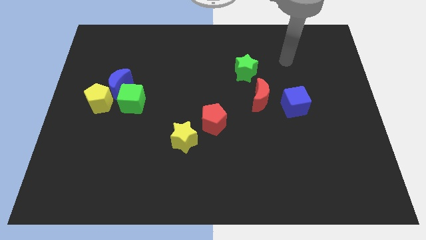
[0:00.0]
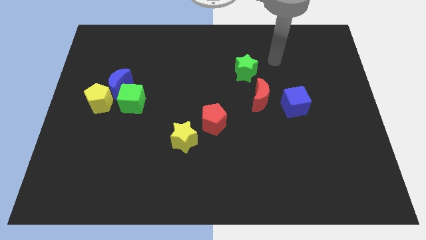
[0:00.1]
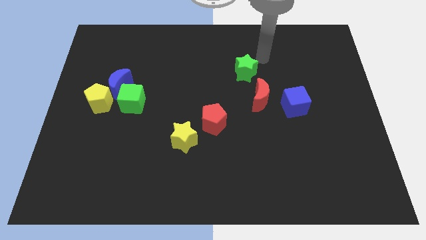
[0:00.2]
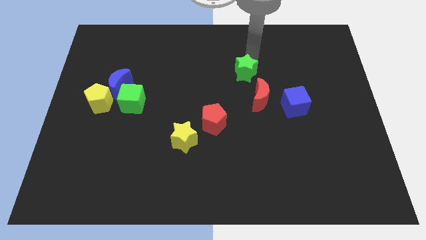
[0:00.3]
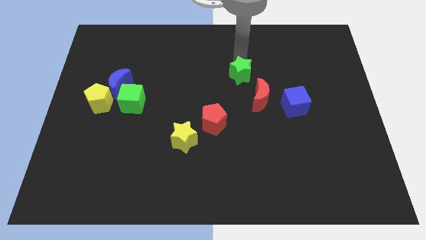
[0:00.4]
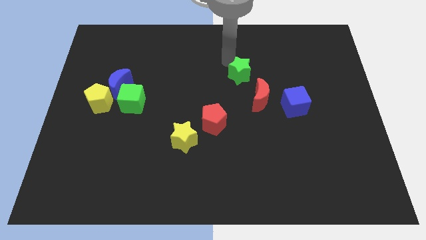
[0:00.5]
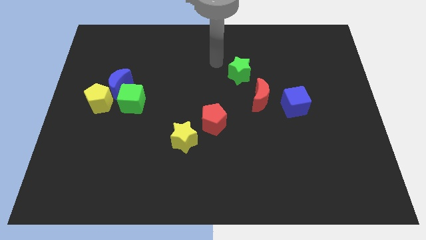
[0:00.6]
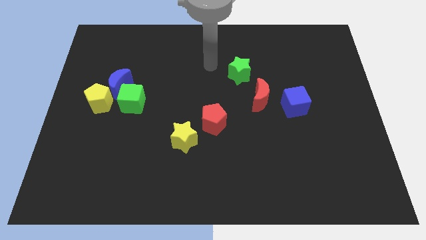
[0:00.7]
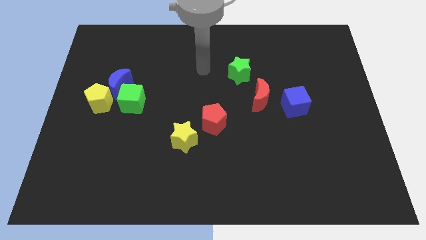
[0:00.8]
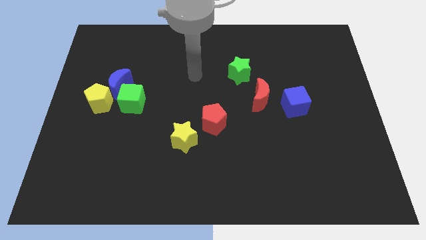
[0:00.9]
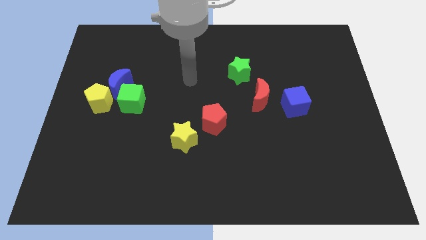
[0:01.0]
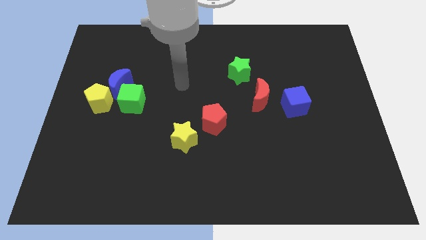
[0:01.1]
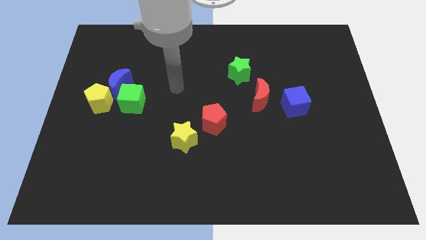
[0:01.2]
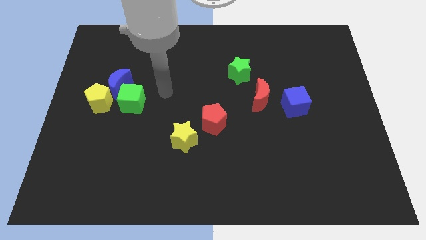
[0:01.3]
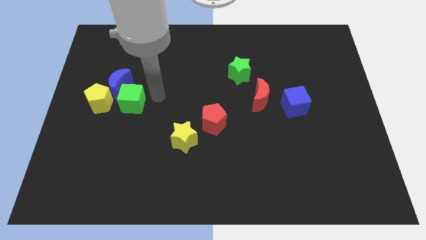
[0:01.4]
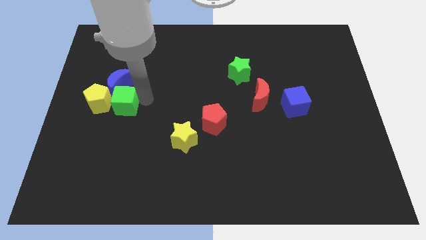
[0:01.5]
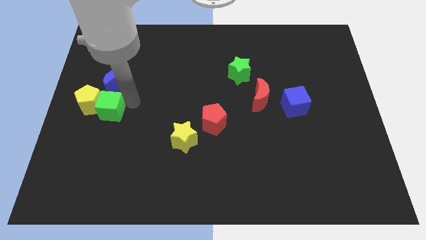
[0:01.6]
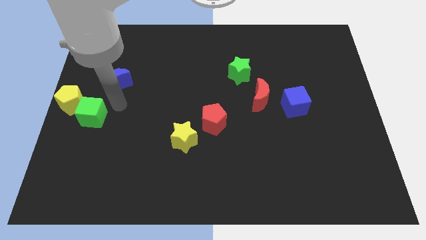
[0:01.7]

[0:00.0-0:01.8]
pull the blue moon apart from the green cube and yellow pentagon

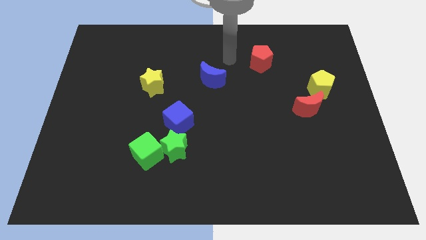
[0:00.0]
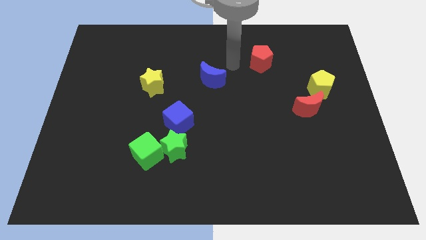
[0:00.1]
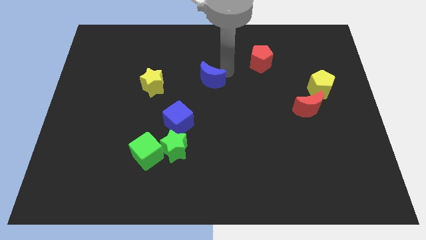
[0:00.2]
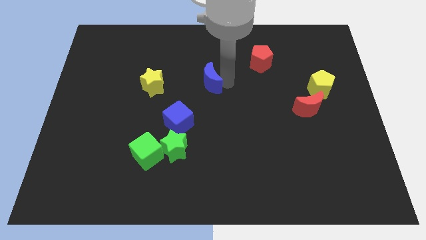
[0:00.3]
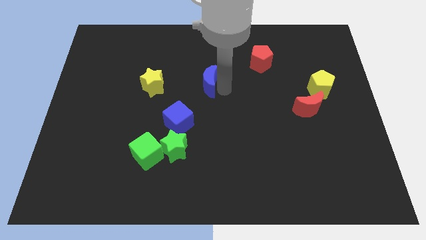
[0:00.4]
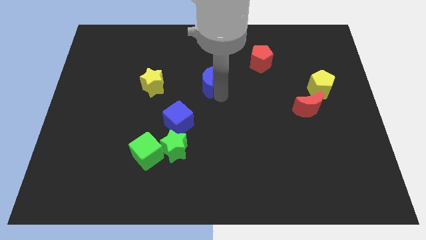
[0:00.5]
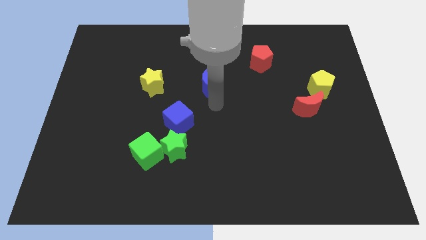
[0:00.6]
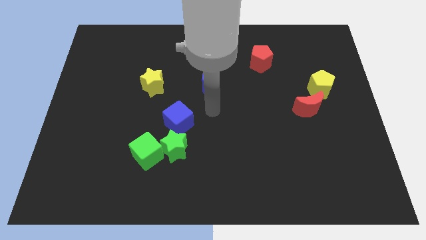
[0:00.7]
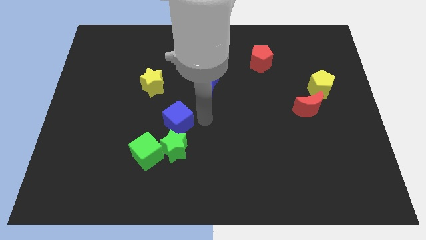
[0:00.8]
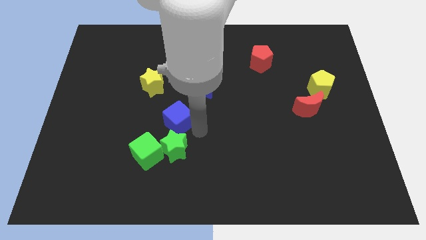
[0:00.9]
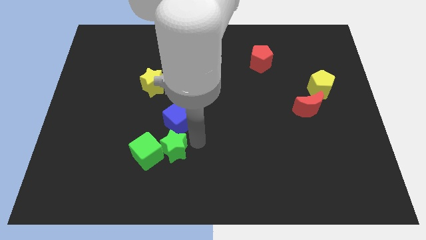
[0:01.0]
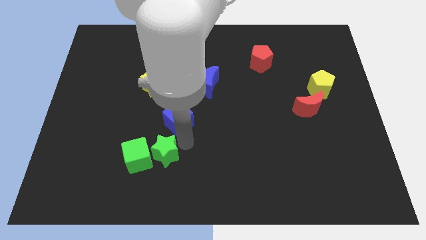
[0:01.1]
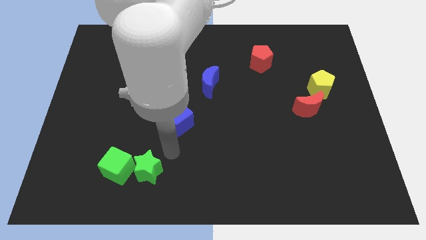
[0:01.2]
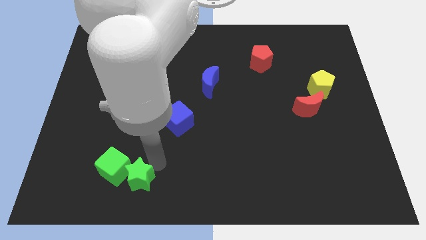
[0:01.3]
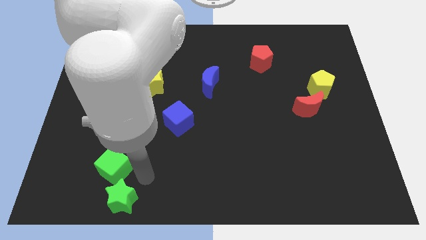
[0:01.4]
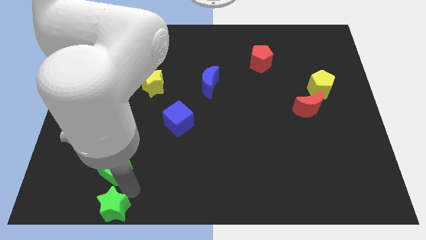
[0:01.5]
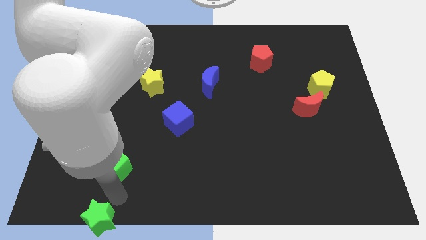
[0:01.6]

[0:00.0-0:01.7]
move the green cube away from the green star

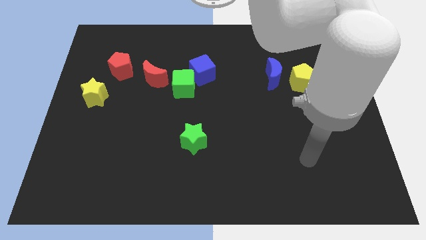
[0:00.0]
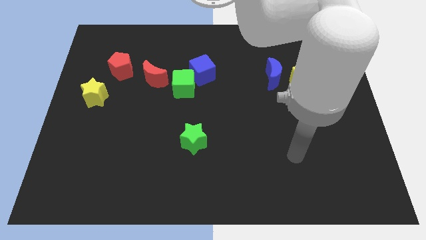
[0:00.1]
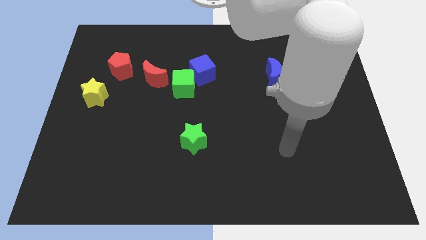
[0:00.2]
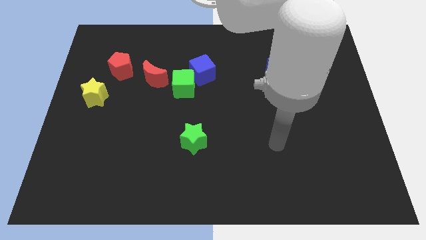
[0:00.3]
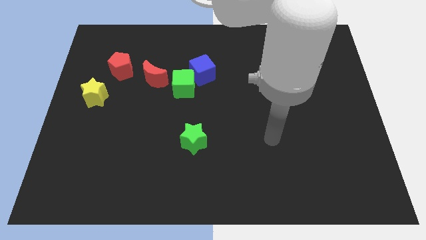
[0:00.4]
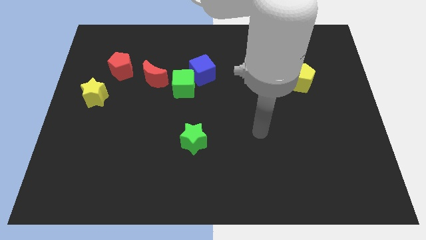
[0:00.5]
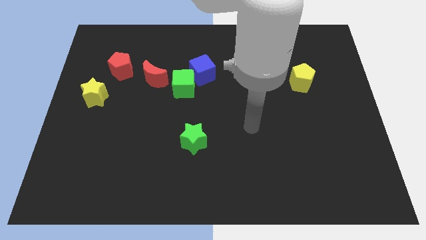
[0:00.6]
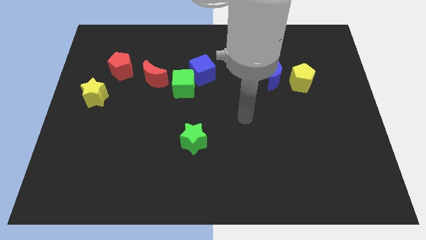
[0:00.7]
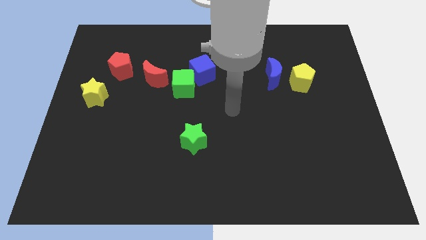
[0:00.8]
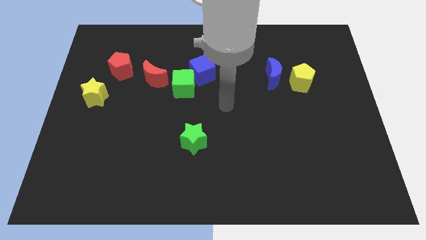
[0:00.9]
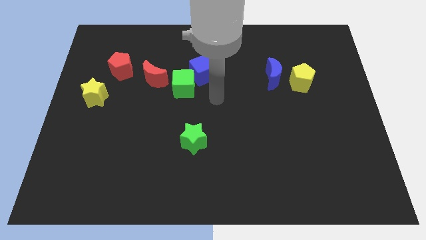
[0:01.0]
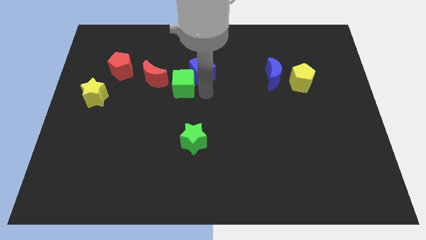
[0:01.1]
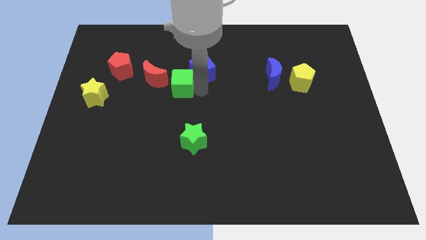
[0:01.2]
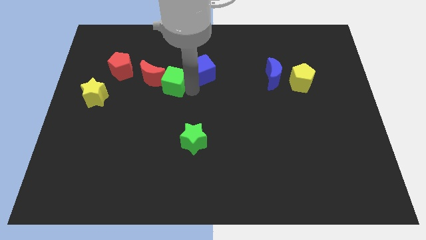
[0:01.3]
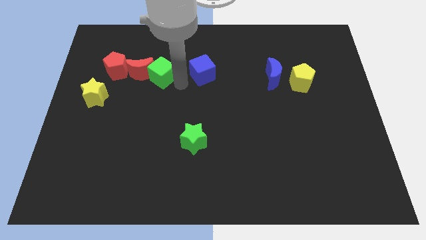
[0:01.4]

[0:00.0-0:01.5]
separate the blue cube from the green cube

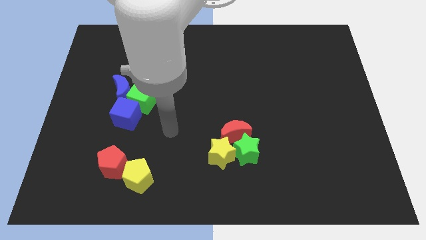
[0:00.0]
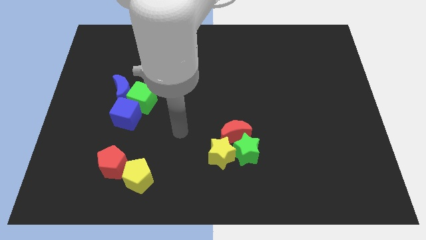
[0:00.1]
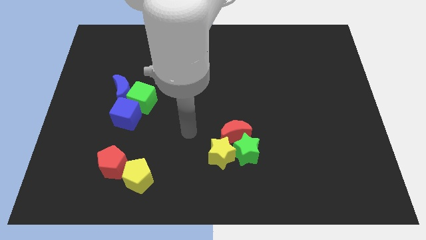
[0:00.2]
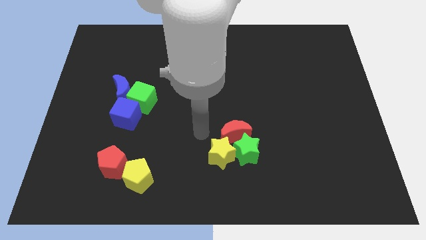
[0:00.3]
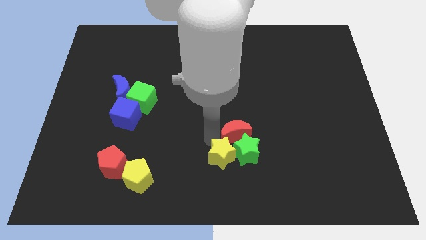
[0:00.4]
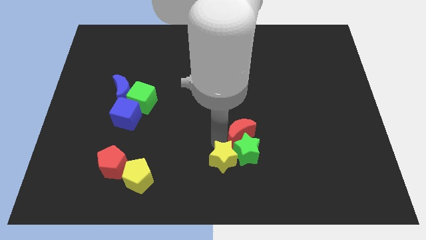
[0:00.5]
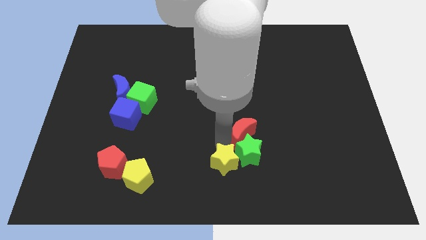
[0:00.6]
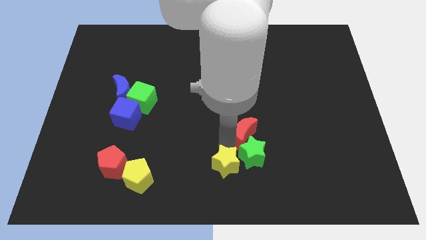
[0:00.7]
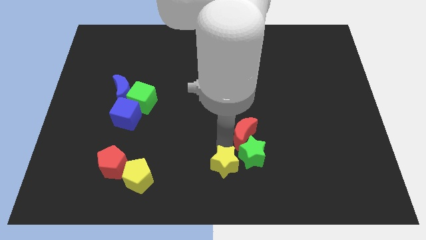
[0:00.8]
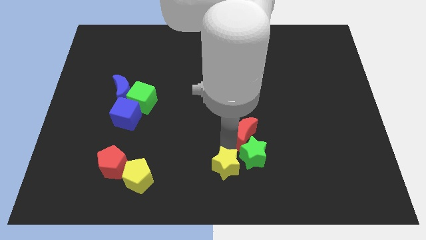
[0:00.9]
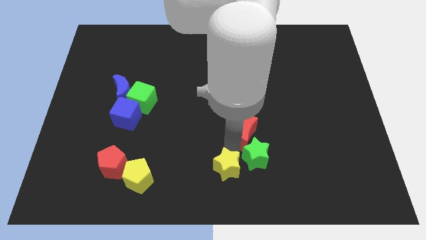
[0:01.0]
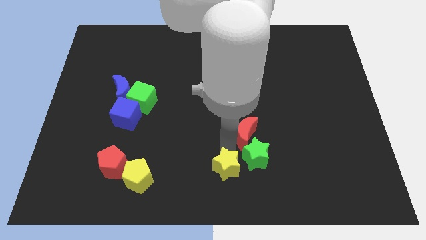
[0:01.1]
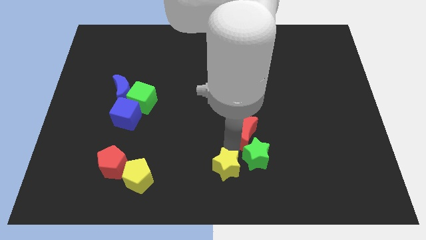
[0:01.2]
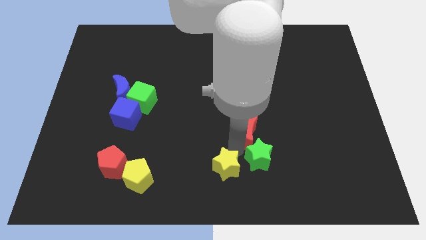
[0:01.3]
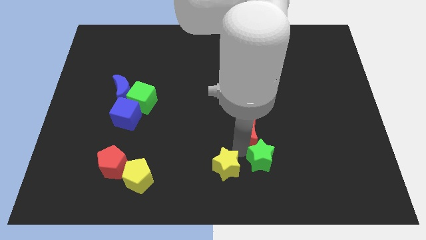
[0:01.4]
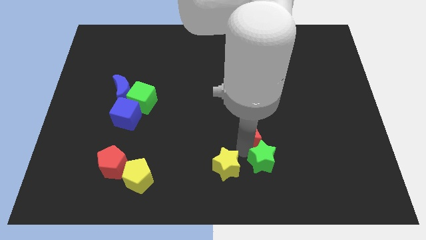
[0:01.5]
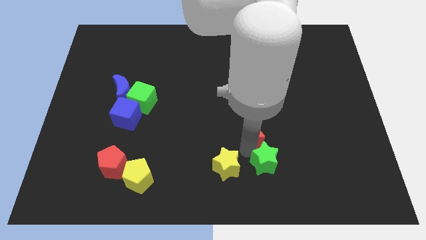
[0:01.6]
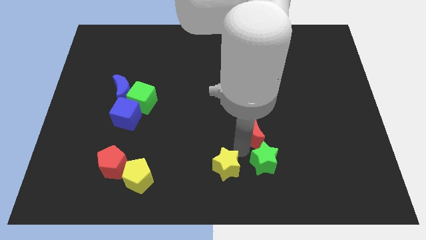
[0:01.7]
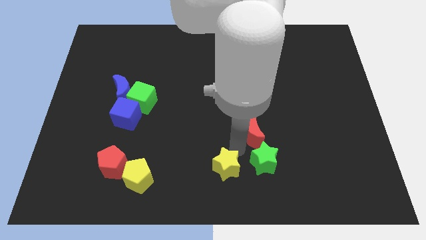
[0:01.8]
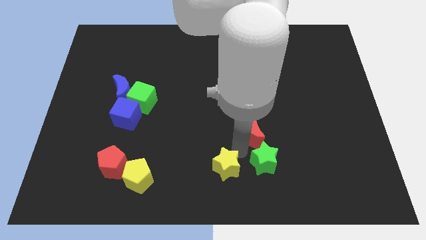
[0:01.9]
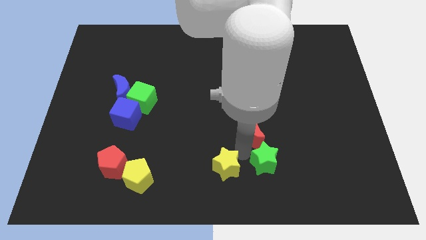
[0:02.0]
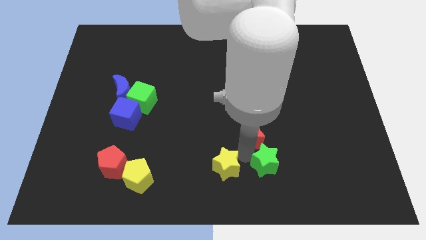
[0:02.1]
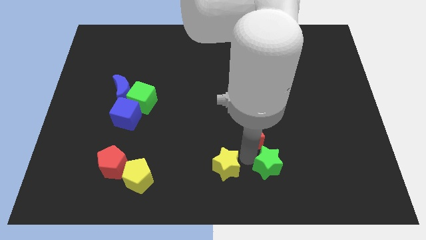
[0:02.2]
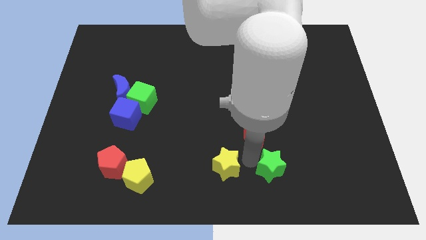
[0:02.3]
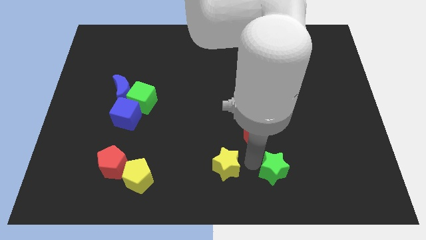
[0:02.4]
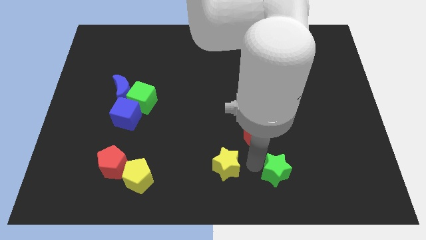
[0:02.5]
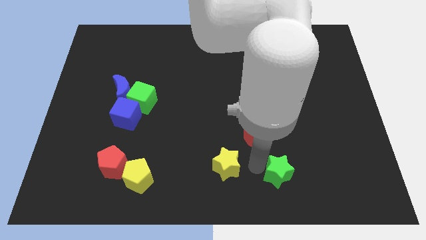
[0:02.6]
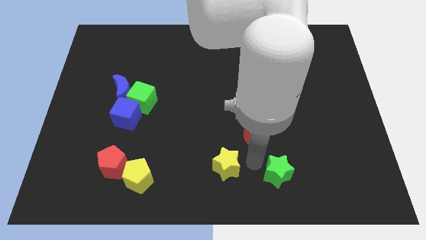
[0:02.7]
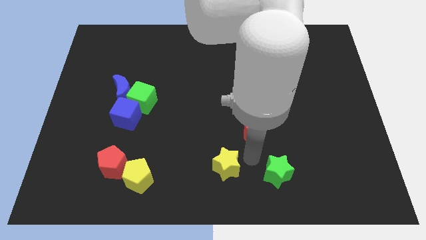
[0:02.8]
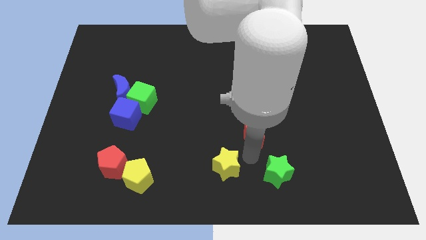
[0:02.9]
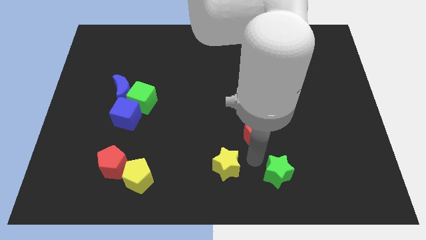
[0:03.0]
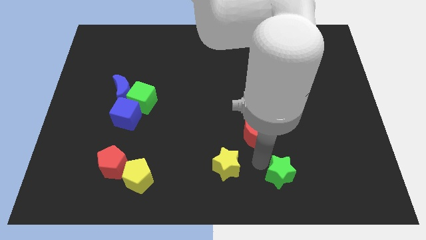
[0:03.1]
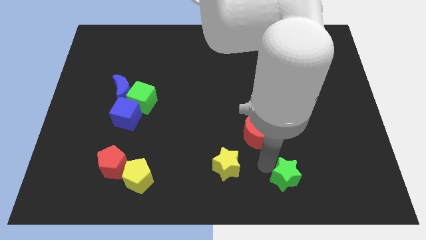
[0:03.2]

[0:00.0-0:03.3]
pull the green star apart from the red moon and yellow star

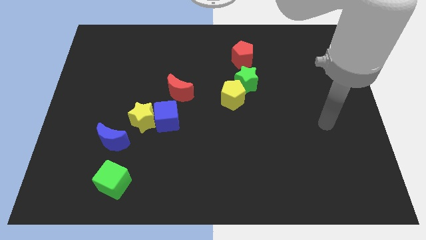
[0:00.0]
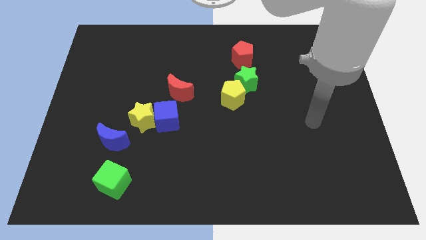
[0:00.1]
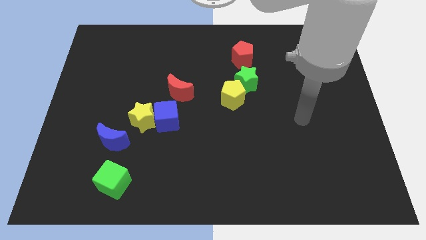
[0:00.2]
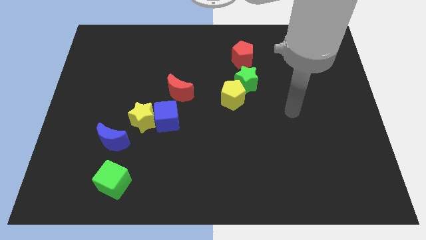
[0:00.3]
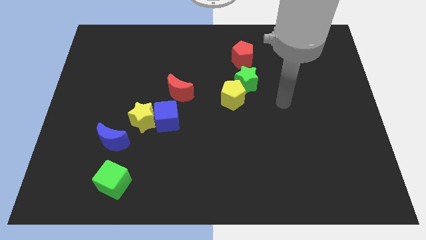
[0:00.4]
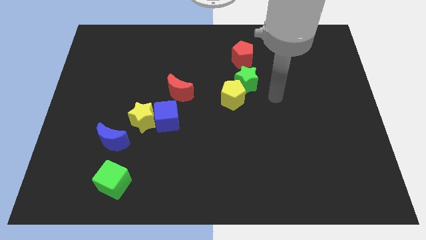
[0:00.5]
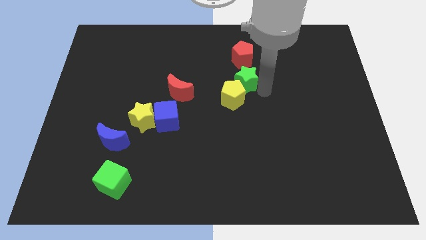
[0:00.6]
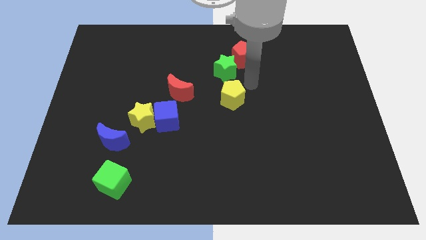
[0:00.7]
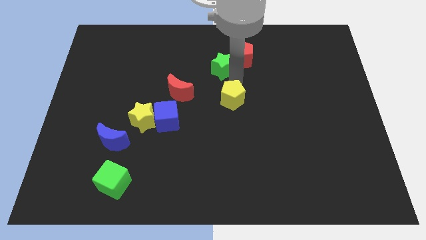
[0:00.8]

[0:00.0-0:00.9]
separate the yellow pentagon from the green star

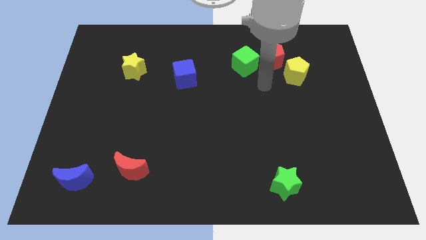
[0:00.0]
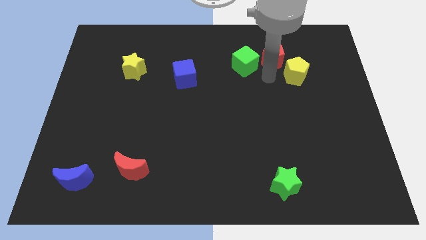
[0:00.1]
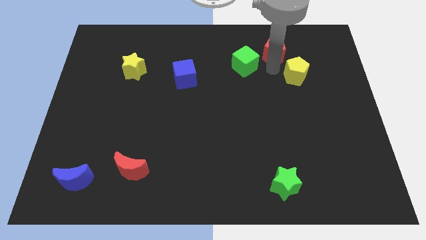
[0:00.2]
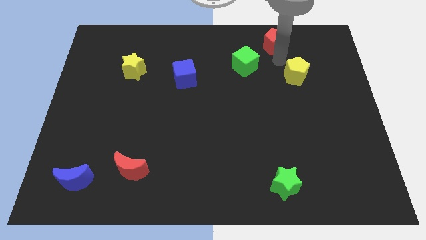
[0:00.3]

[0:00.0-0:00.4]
move the yellow pentagon away from the red pentagon
